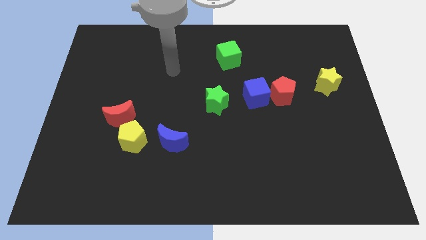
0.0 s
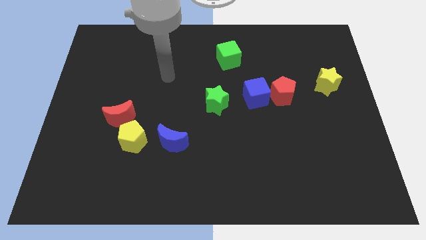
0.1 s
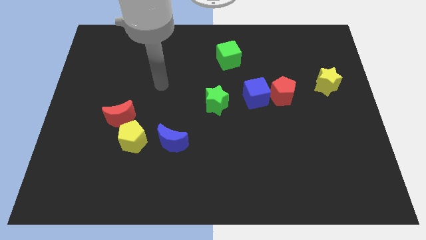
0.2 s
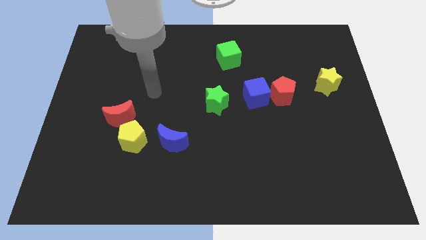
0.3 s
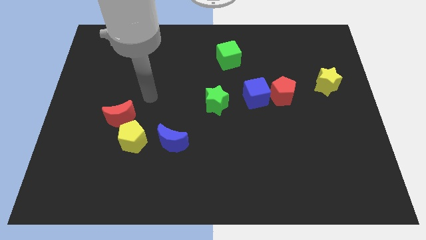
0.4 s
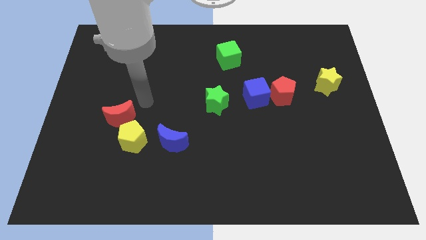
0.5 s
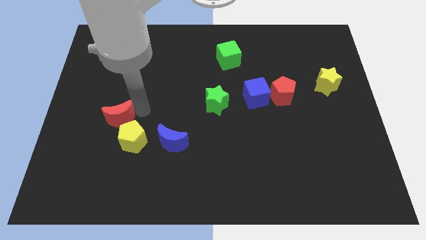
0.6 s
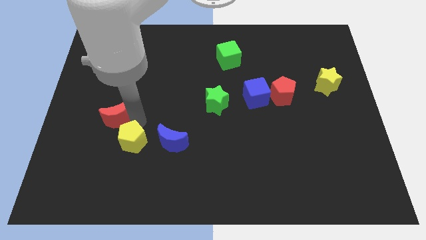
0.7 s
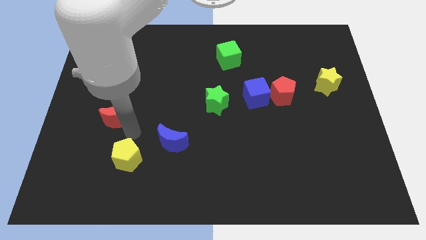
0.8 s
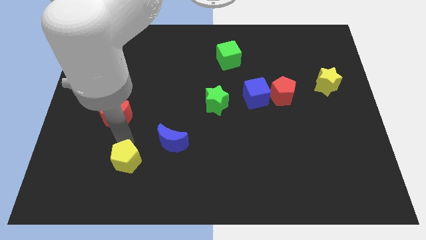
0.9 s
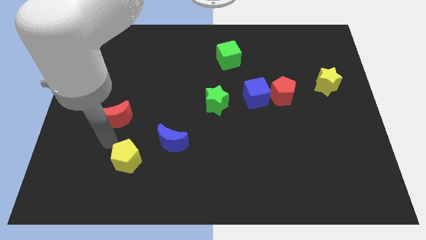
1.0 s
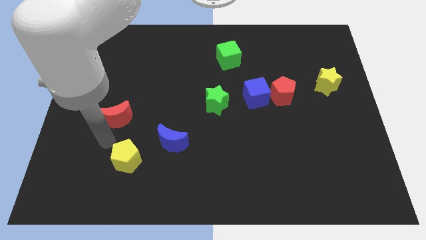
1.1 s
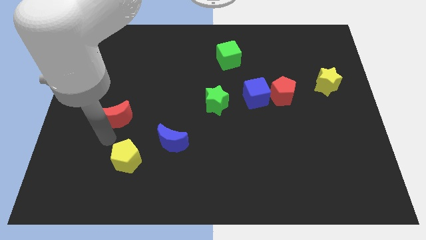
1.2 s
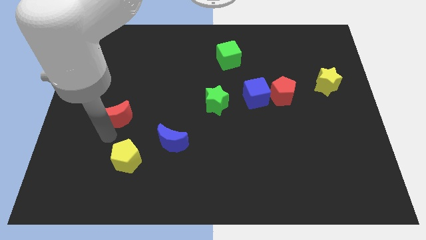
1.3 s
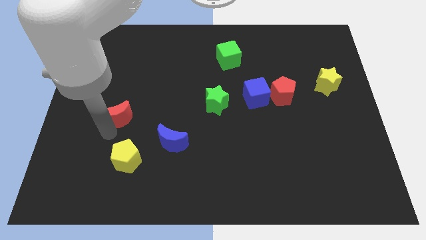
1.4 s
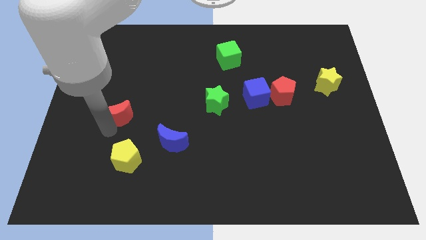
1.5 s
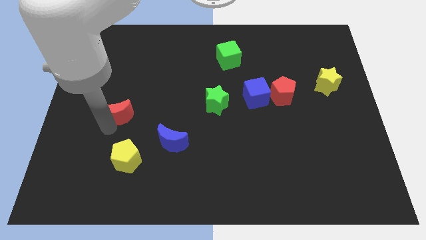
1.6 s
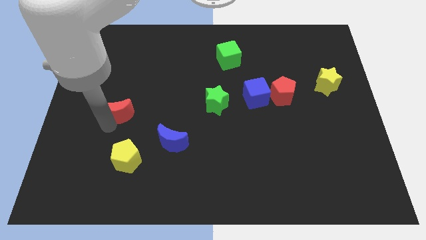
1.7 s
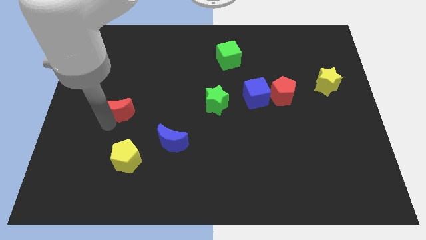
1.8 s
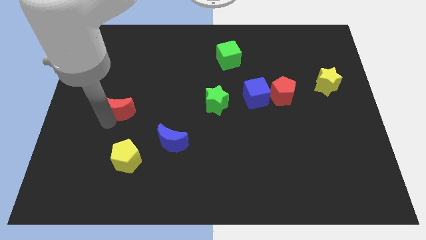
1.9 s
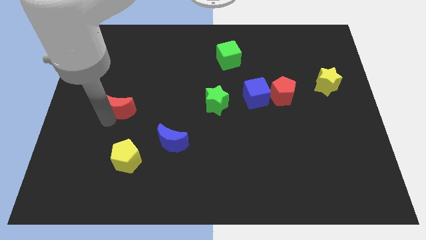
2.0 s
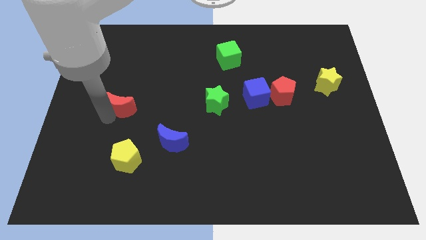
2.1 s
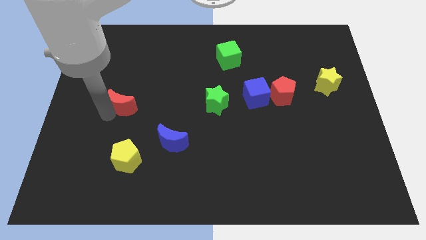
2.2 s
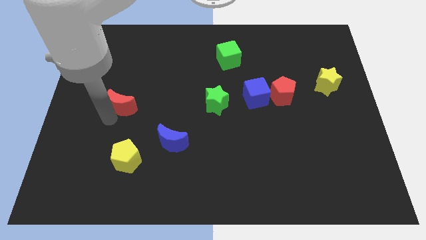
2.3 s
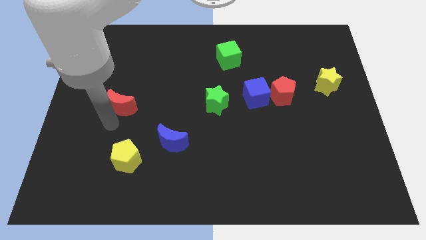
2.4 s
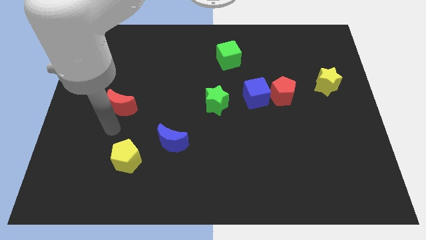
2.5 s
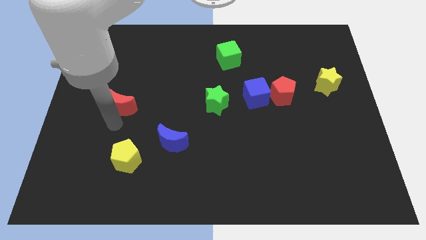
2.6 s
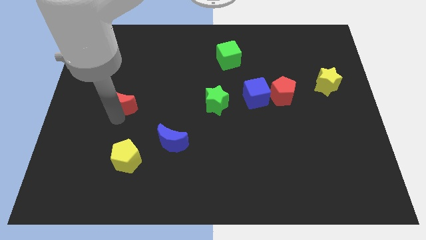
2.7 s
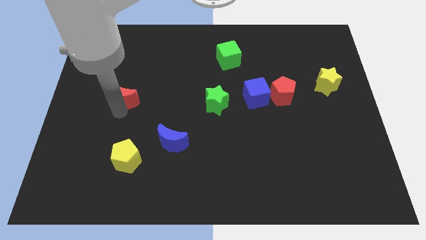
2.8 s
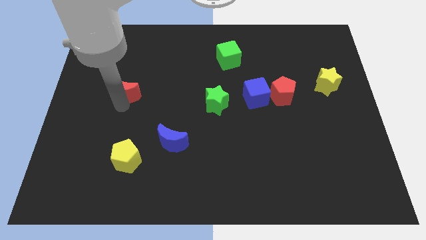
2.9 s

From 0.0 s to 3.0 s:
slide the red moon slightly up

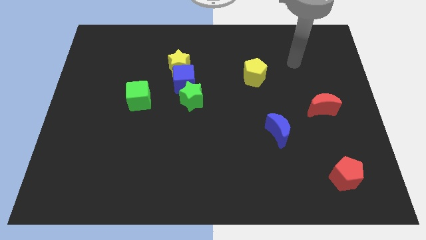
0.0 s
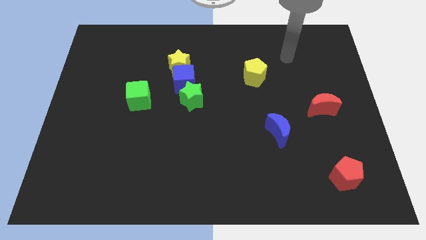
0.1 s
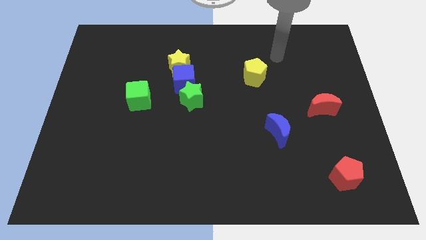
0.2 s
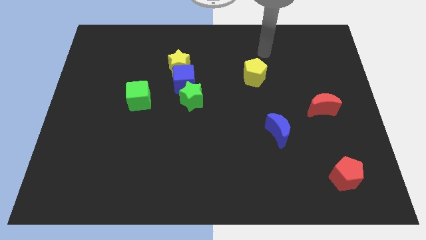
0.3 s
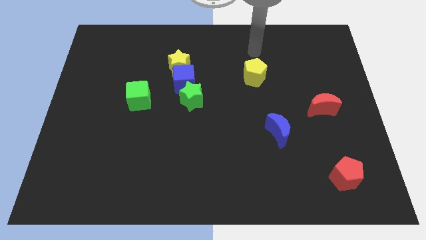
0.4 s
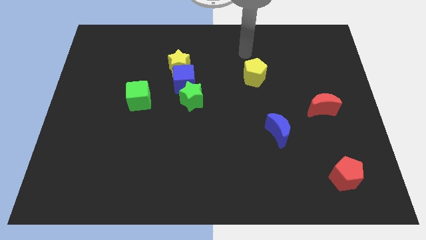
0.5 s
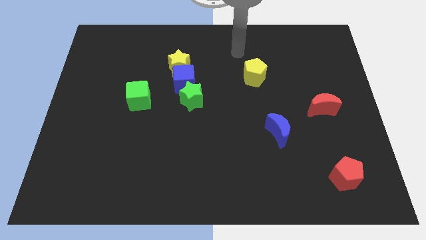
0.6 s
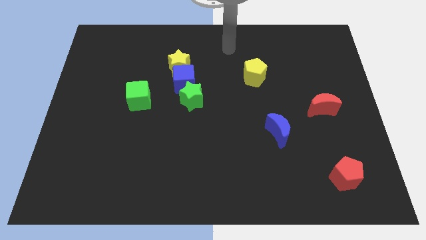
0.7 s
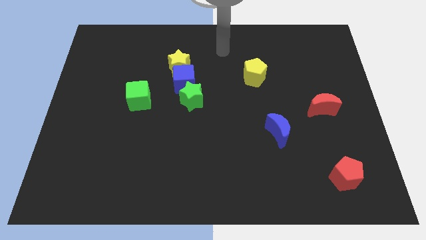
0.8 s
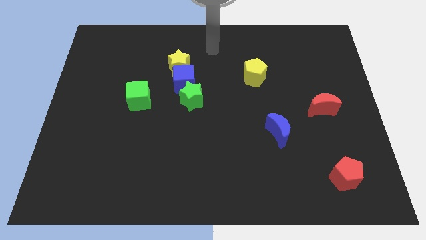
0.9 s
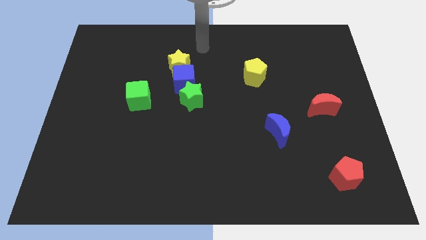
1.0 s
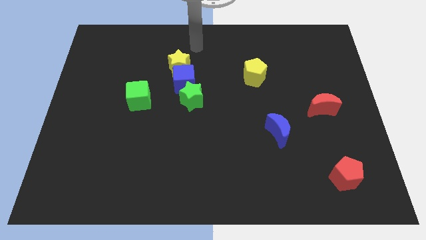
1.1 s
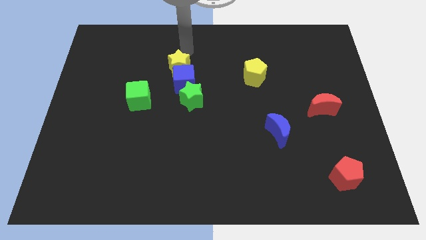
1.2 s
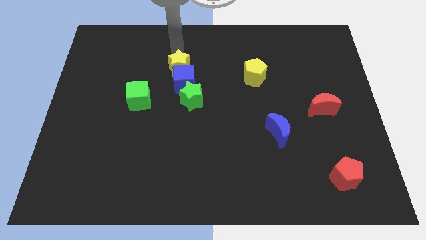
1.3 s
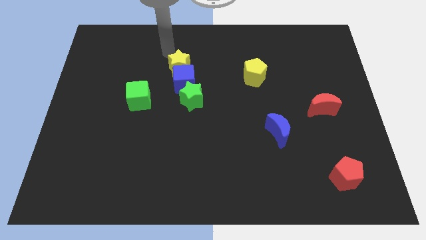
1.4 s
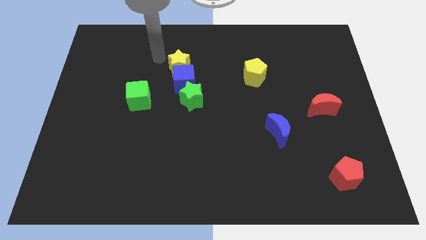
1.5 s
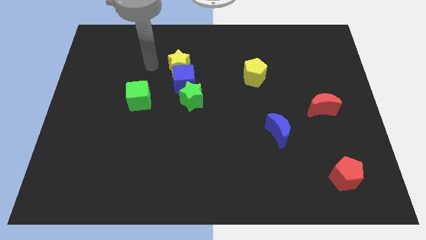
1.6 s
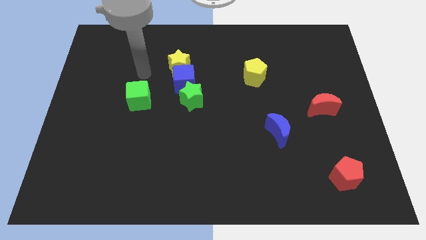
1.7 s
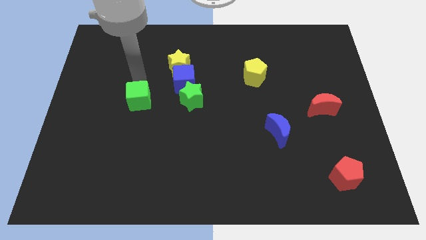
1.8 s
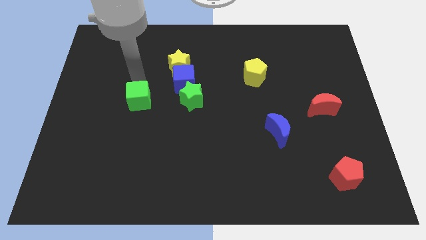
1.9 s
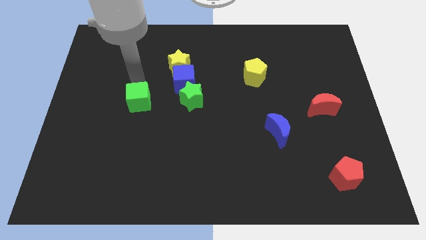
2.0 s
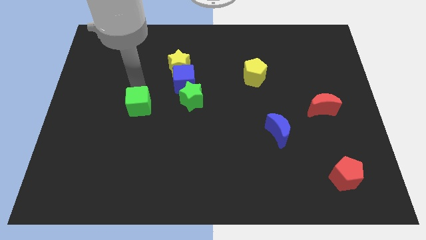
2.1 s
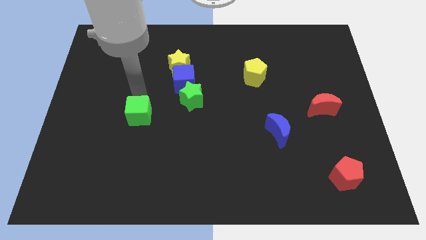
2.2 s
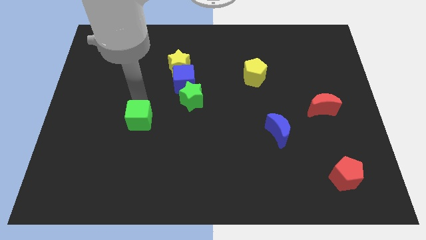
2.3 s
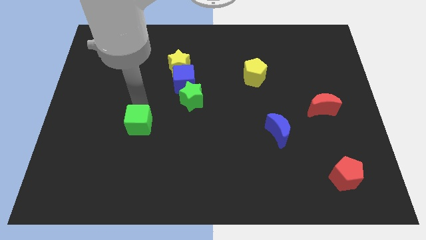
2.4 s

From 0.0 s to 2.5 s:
move the green cube slightly down

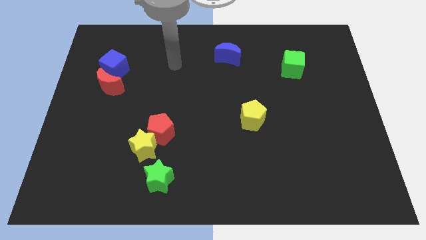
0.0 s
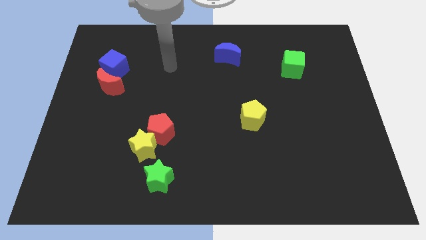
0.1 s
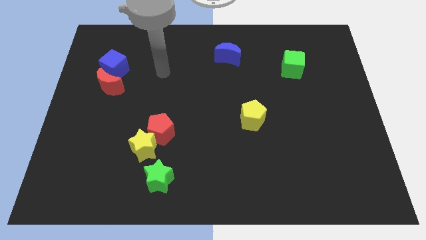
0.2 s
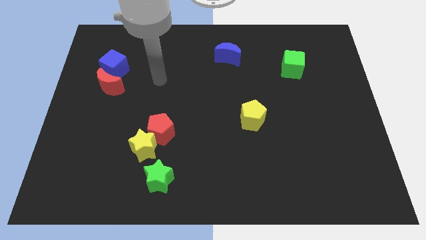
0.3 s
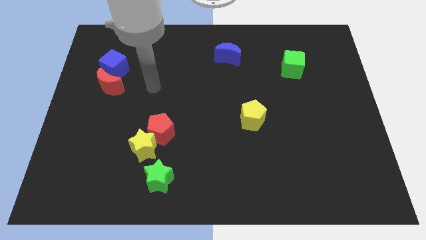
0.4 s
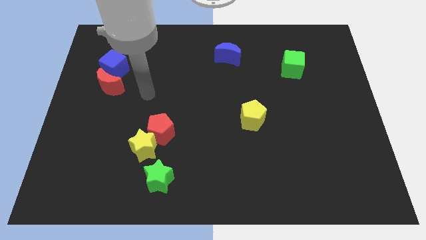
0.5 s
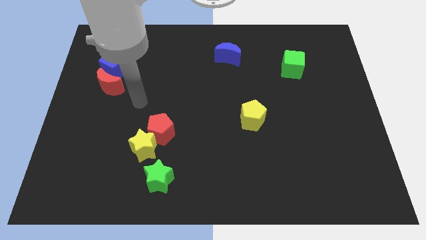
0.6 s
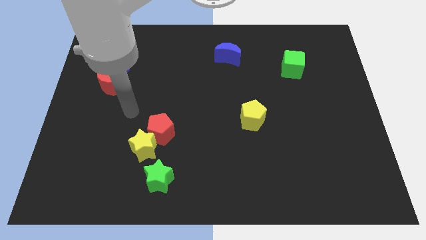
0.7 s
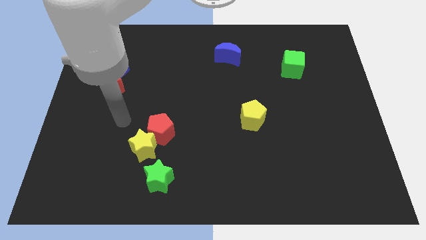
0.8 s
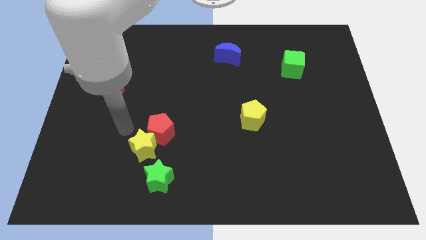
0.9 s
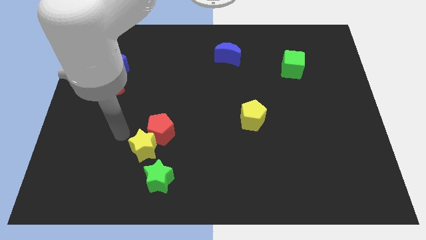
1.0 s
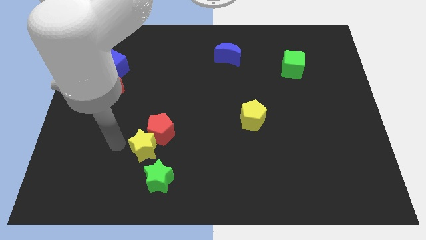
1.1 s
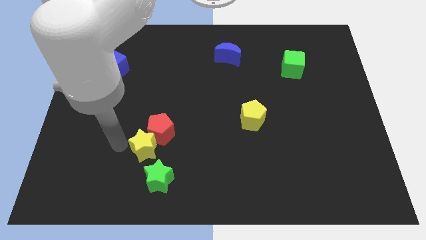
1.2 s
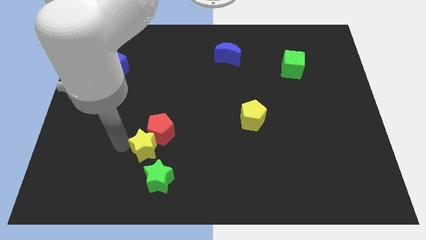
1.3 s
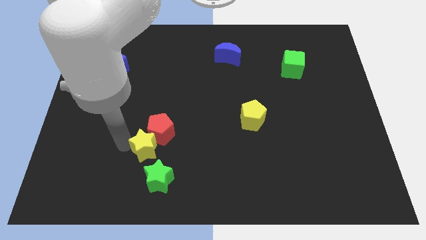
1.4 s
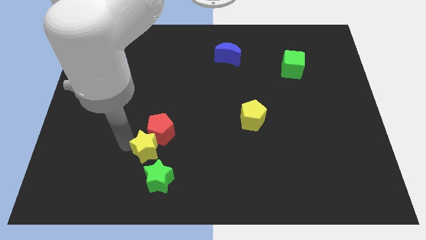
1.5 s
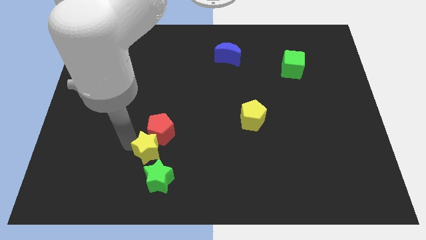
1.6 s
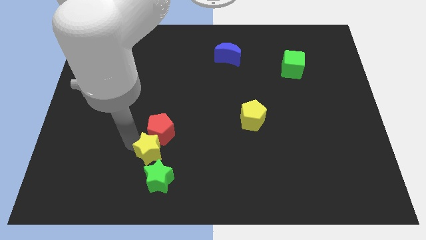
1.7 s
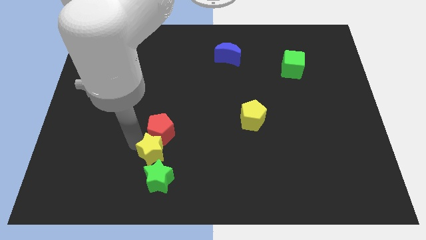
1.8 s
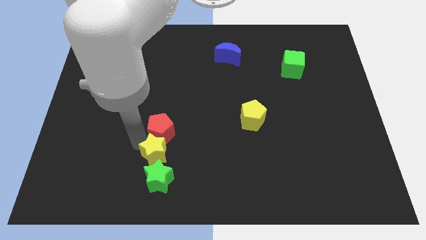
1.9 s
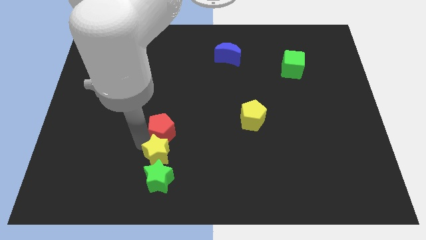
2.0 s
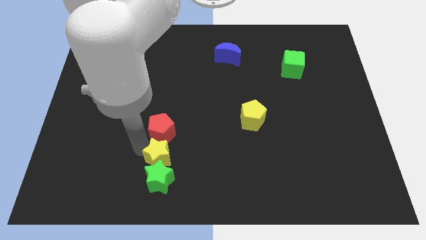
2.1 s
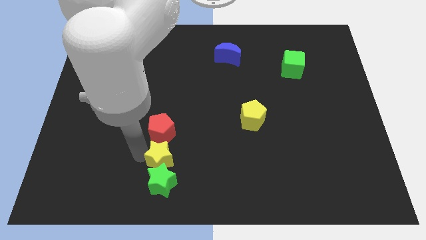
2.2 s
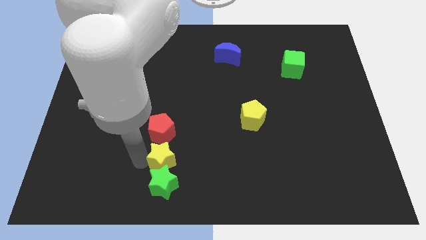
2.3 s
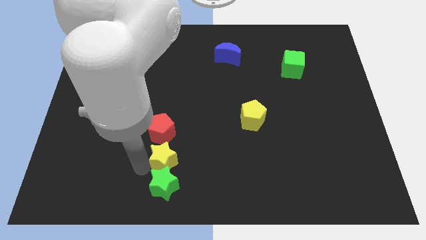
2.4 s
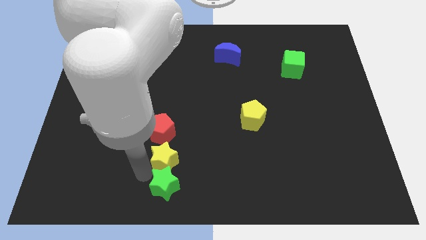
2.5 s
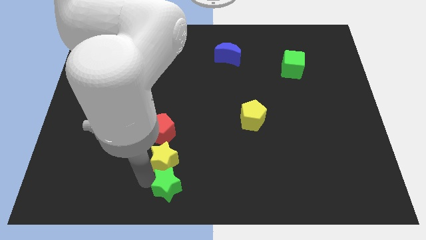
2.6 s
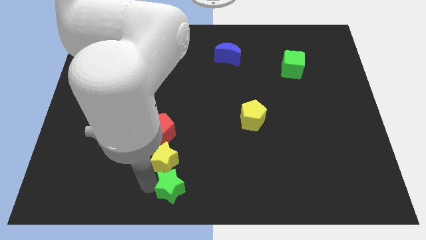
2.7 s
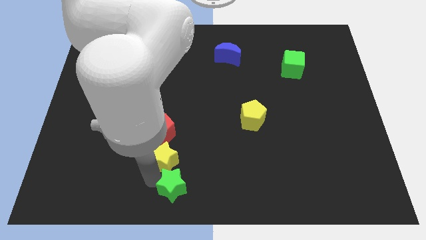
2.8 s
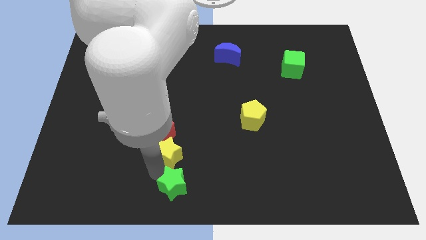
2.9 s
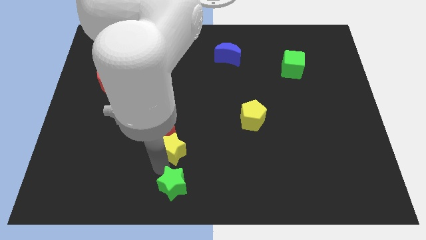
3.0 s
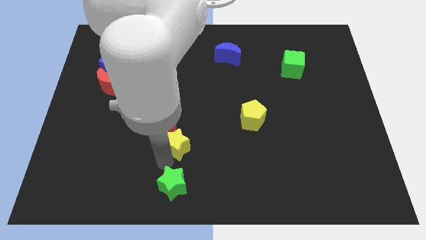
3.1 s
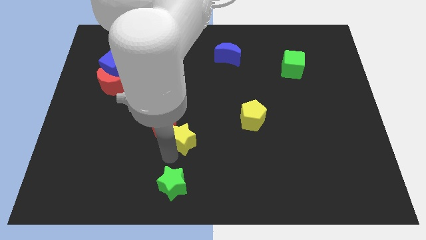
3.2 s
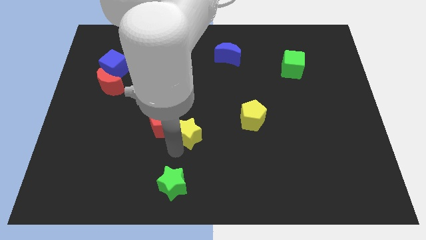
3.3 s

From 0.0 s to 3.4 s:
slide the yellow star a little up and then right
